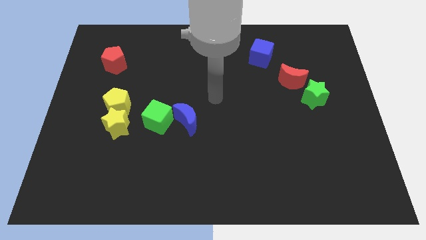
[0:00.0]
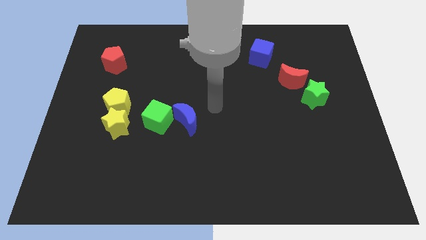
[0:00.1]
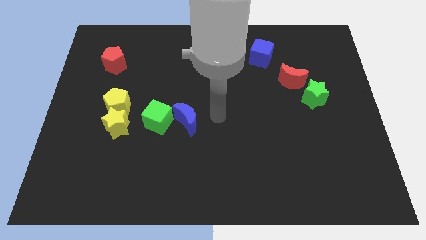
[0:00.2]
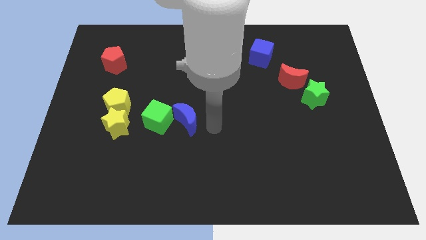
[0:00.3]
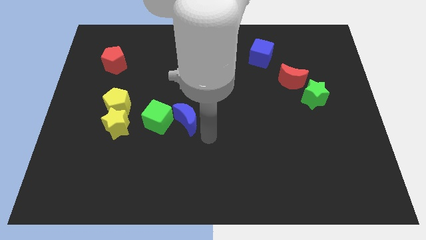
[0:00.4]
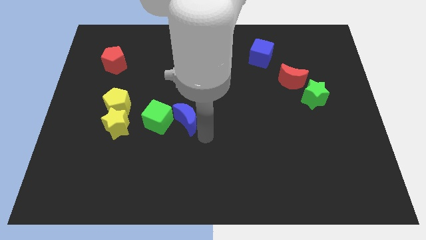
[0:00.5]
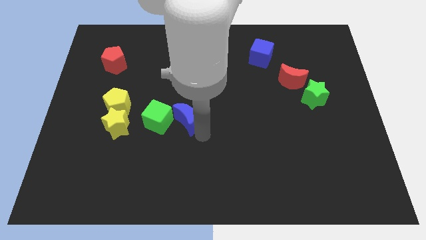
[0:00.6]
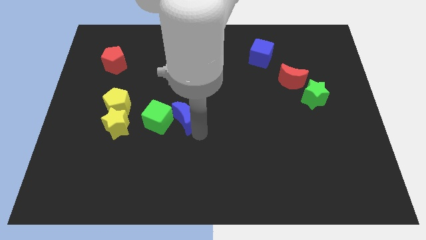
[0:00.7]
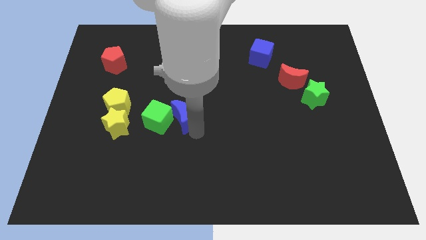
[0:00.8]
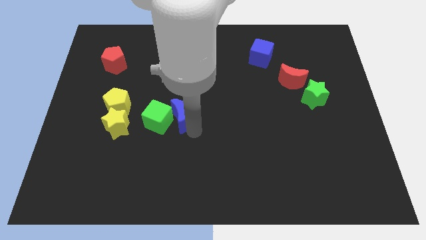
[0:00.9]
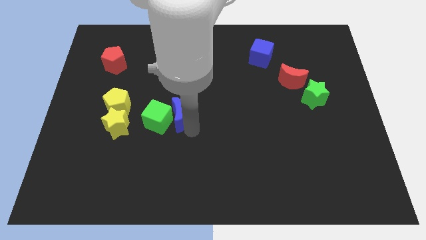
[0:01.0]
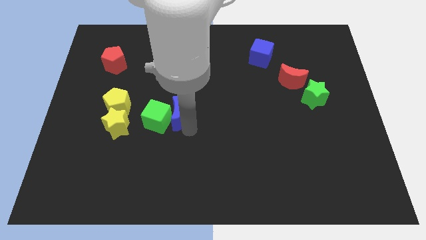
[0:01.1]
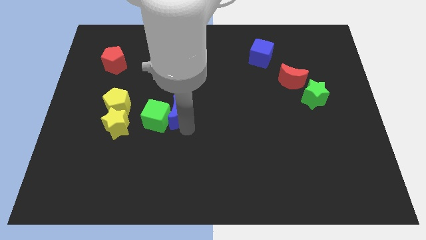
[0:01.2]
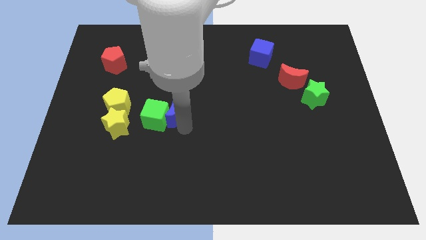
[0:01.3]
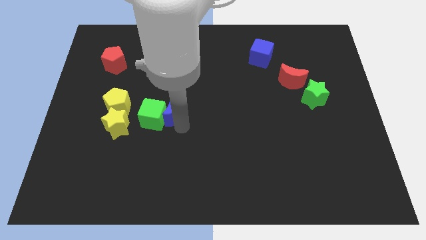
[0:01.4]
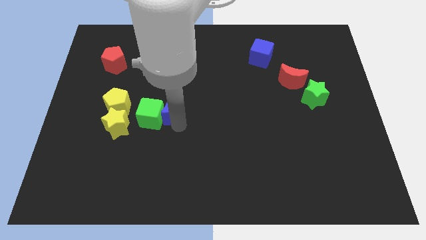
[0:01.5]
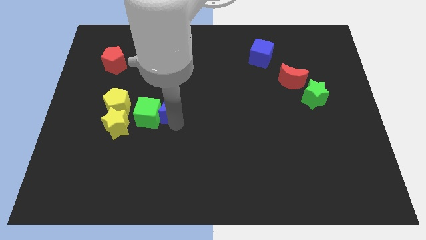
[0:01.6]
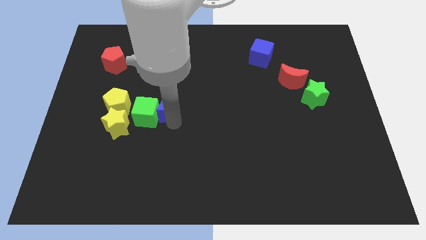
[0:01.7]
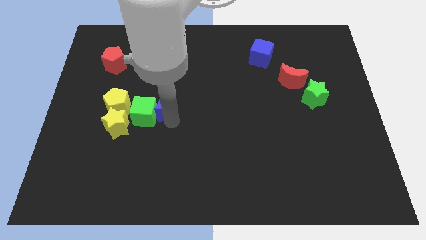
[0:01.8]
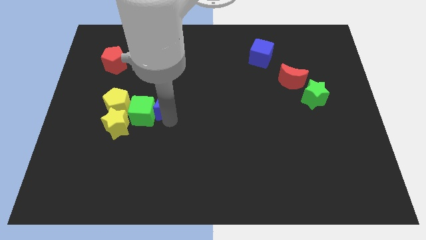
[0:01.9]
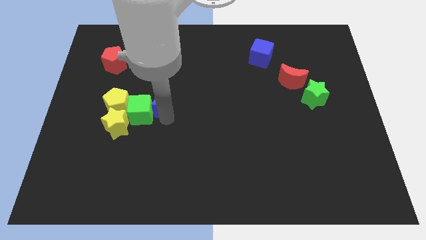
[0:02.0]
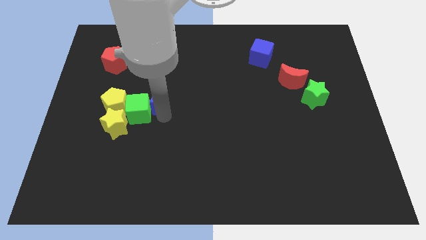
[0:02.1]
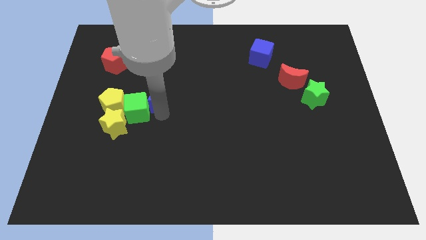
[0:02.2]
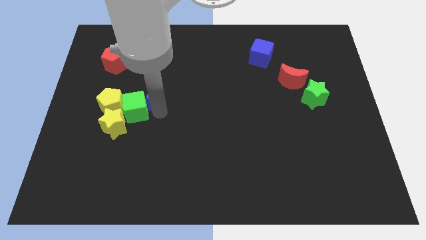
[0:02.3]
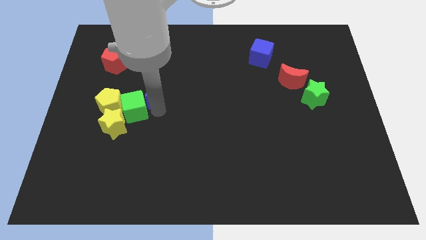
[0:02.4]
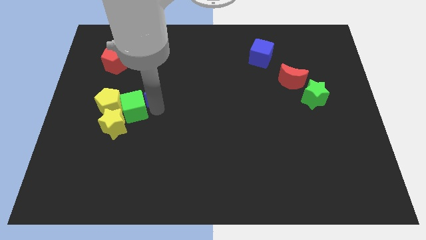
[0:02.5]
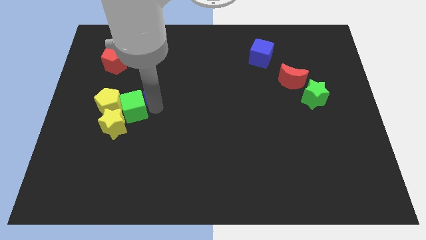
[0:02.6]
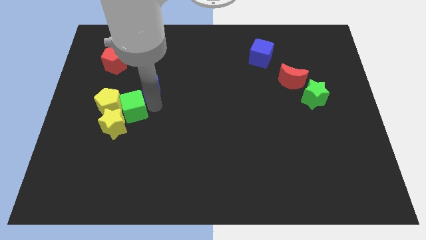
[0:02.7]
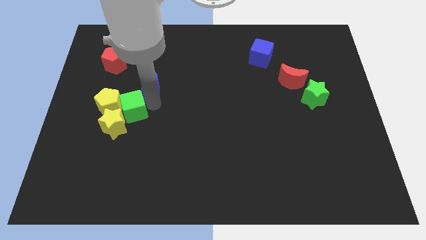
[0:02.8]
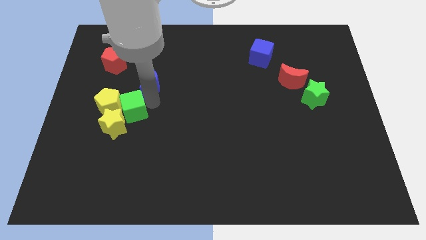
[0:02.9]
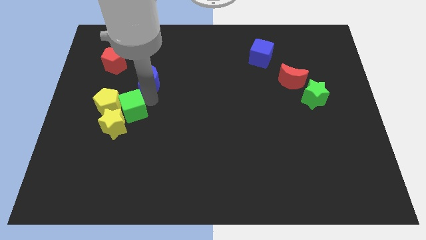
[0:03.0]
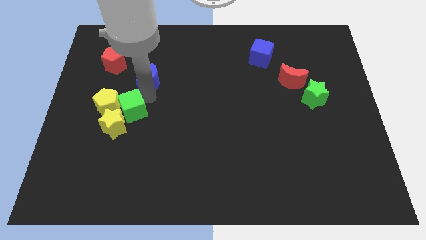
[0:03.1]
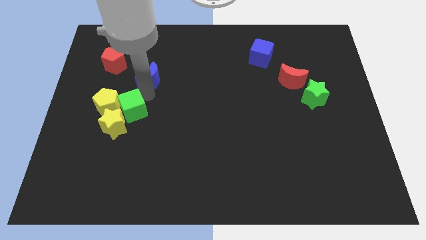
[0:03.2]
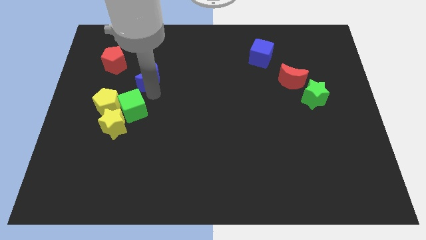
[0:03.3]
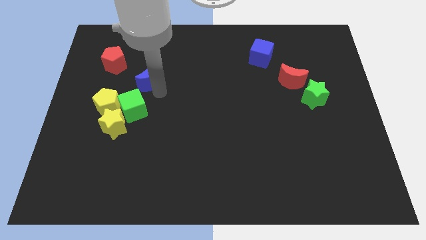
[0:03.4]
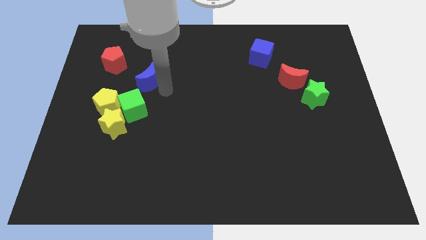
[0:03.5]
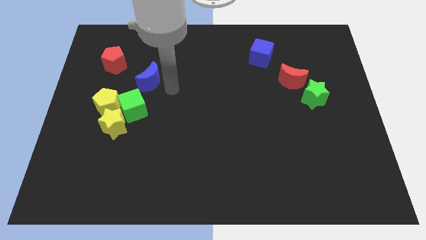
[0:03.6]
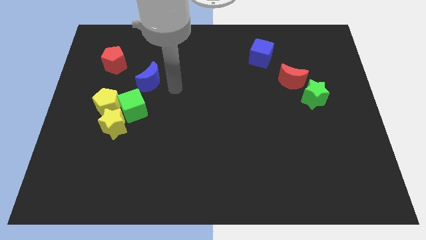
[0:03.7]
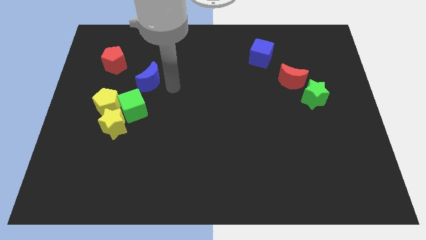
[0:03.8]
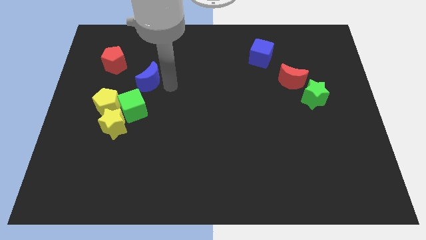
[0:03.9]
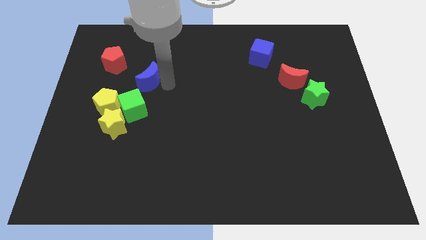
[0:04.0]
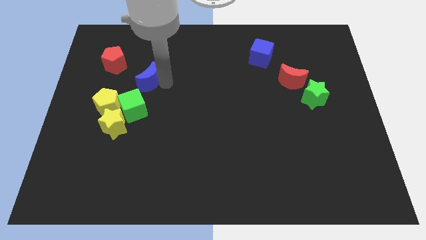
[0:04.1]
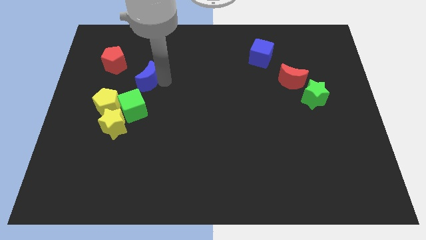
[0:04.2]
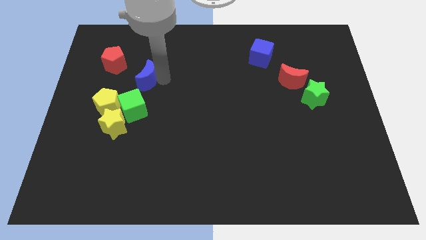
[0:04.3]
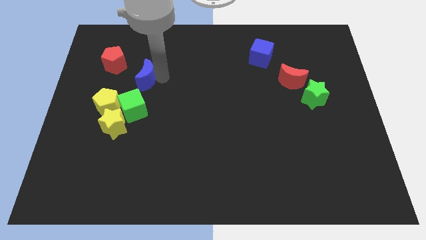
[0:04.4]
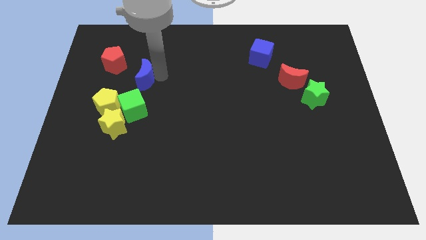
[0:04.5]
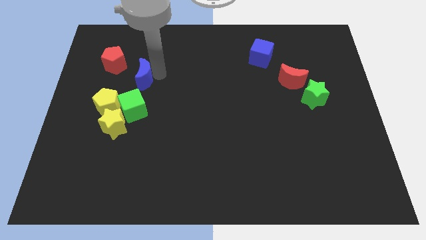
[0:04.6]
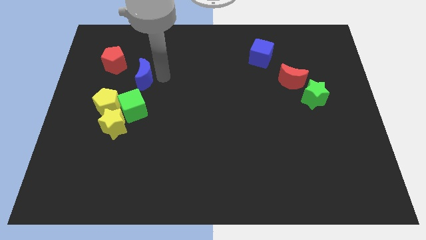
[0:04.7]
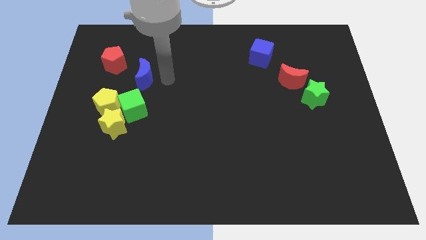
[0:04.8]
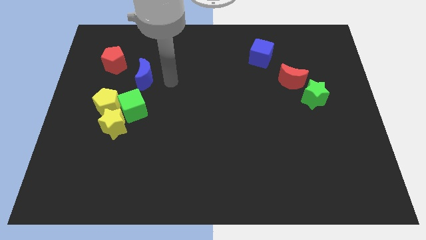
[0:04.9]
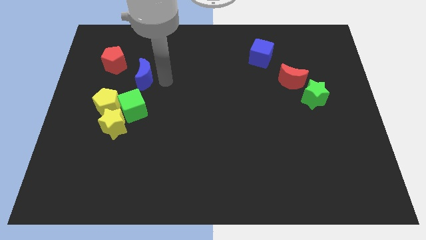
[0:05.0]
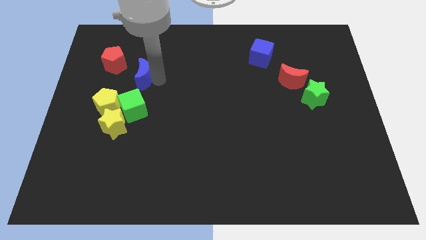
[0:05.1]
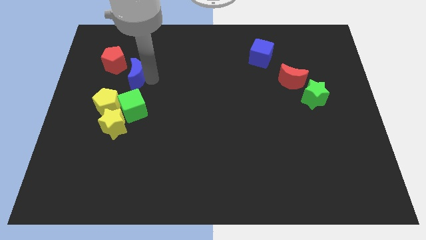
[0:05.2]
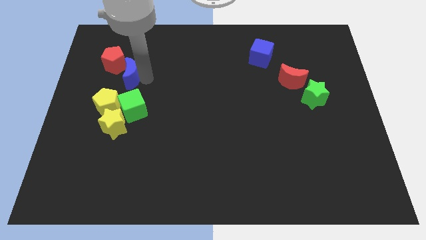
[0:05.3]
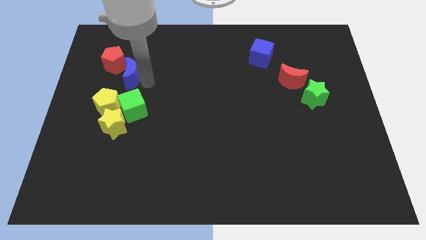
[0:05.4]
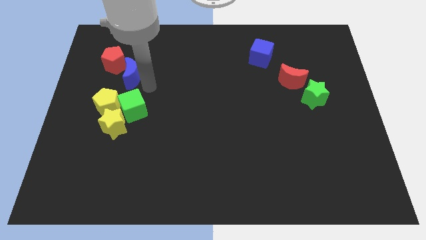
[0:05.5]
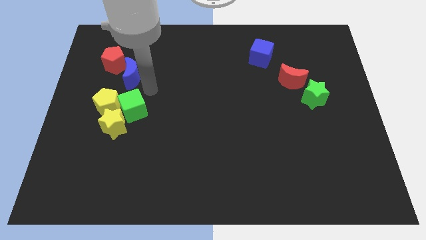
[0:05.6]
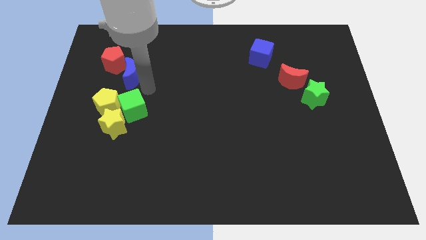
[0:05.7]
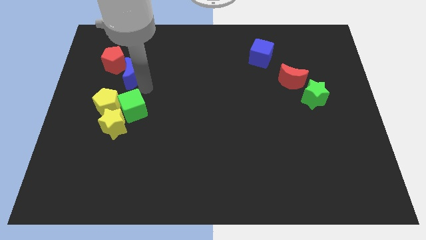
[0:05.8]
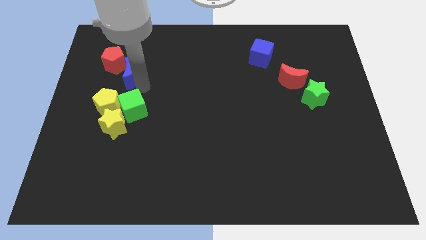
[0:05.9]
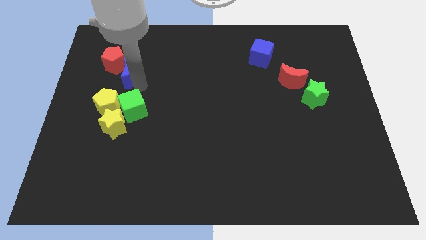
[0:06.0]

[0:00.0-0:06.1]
push the blue moon close to the red pentagon
